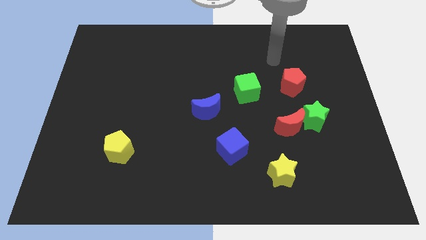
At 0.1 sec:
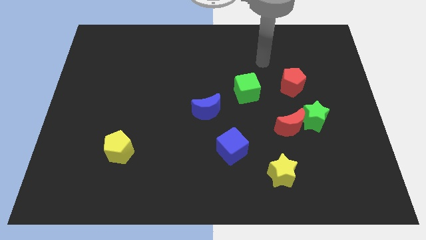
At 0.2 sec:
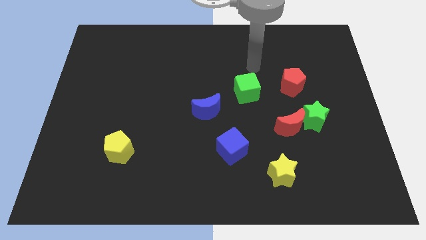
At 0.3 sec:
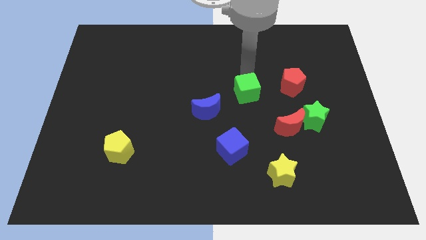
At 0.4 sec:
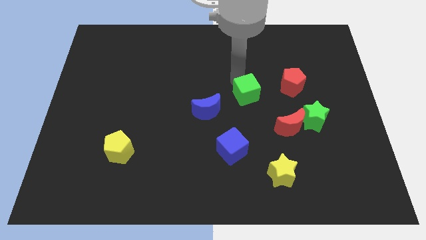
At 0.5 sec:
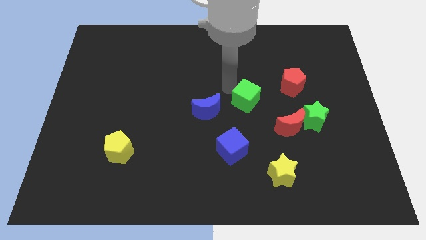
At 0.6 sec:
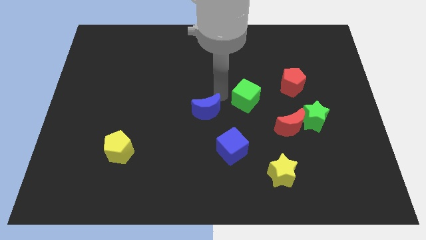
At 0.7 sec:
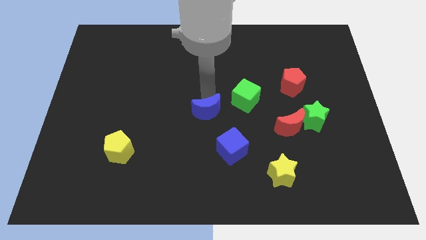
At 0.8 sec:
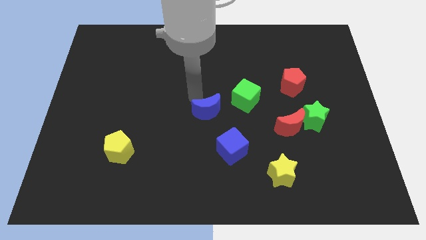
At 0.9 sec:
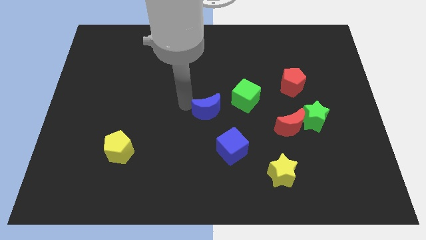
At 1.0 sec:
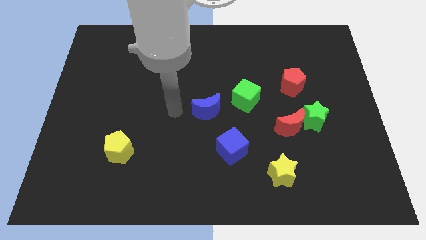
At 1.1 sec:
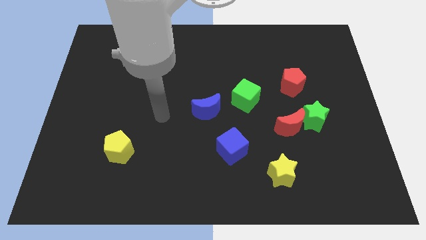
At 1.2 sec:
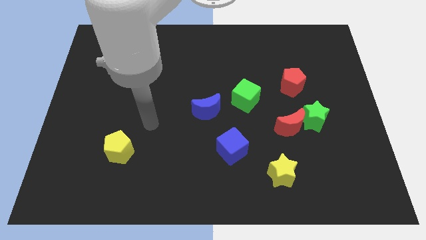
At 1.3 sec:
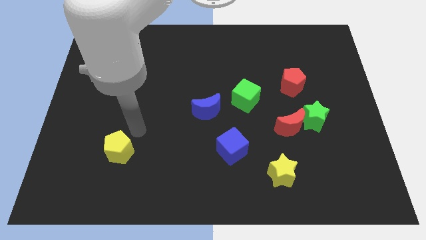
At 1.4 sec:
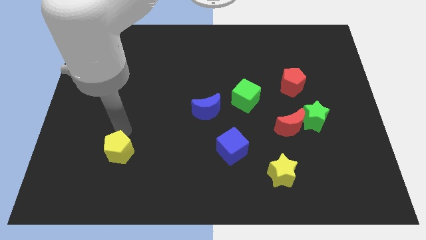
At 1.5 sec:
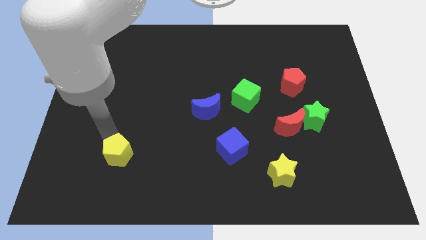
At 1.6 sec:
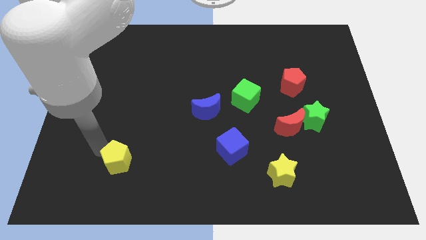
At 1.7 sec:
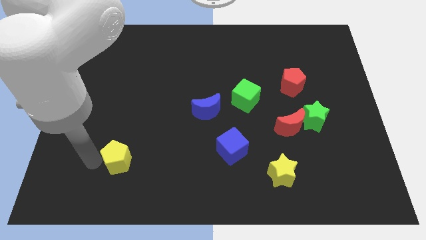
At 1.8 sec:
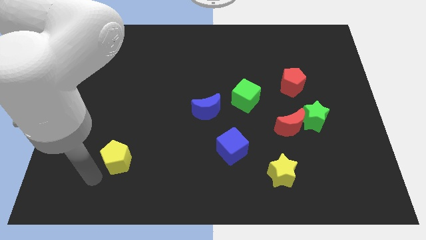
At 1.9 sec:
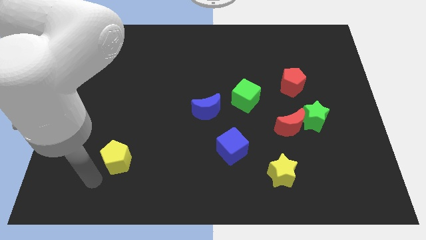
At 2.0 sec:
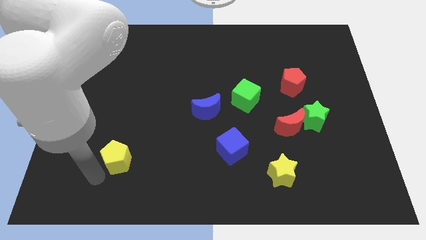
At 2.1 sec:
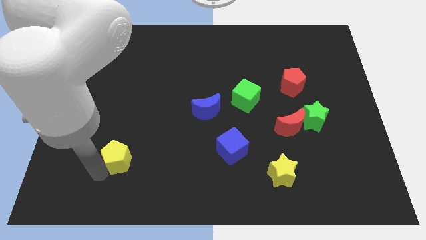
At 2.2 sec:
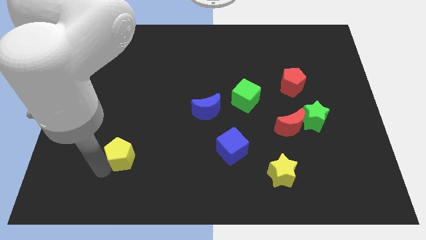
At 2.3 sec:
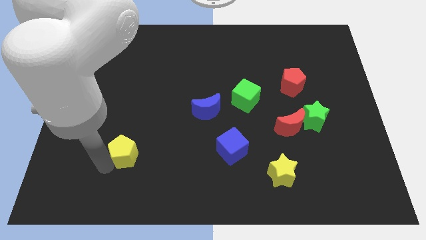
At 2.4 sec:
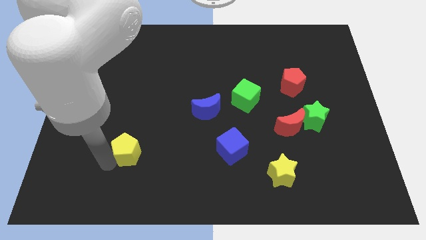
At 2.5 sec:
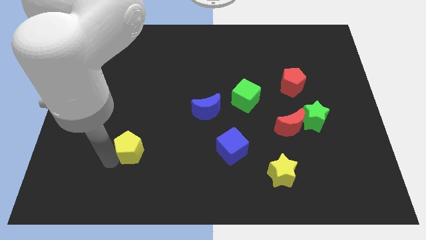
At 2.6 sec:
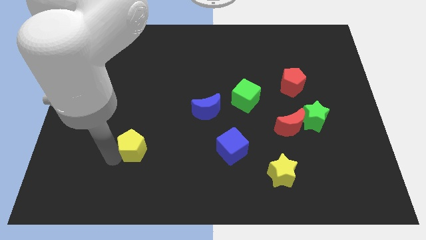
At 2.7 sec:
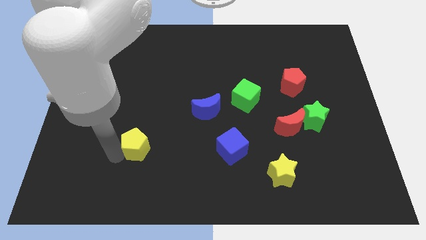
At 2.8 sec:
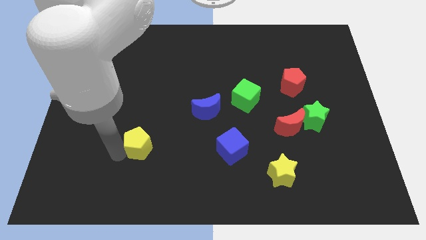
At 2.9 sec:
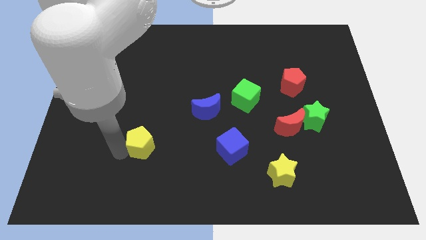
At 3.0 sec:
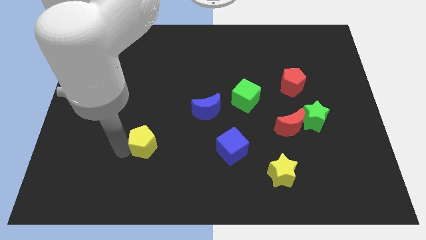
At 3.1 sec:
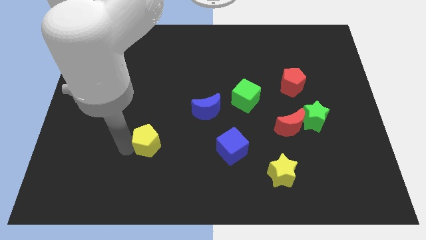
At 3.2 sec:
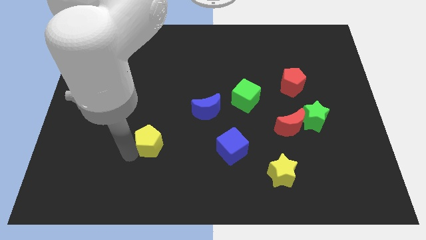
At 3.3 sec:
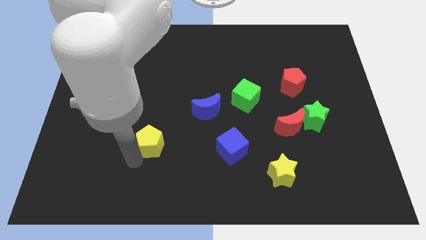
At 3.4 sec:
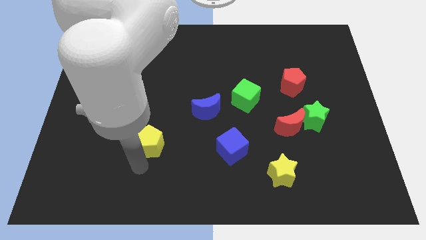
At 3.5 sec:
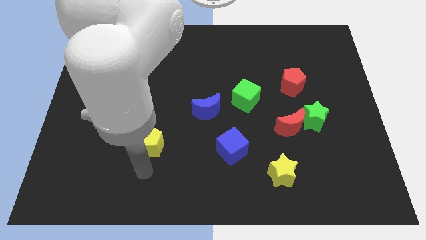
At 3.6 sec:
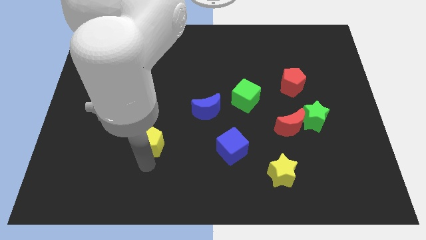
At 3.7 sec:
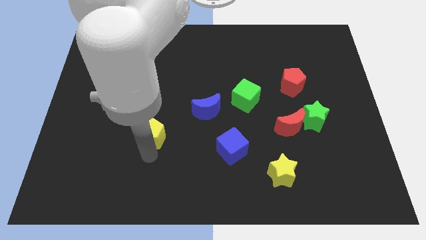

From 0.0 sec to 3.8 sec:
push the yellow pentagon up and to the right a little

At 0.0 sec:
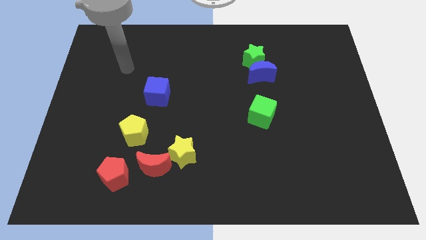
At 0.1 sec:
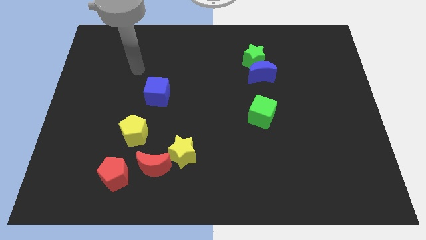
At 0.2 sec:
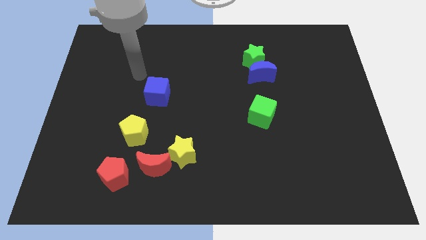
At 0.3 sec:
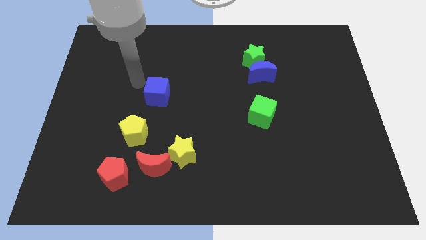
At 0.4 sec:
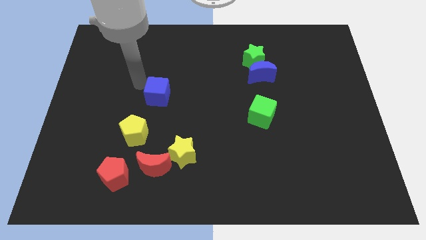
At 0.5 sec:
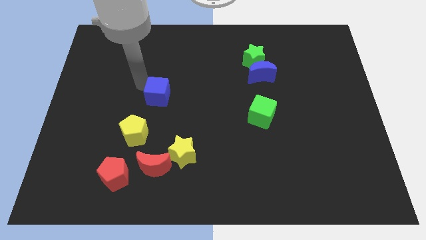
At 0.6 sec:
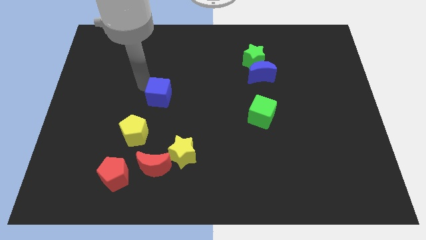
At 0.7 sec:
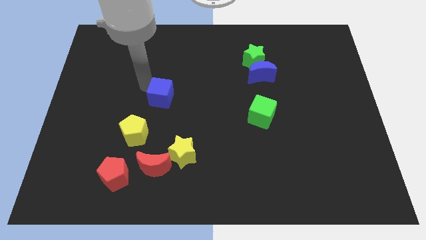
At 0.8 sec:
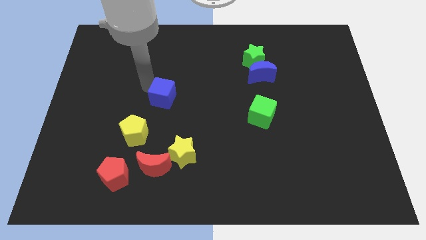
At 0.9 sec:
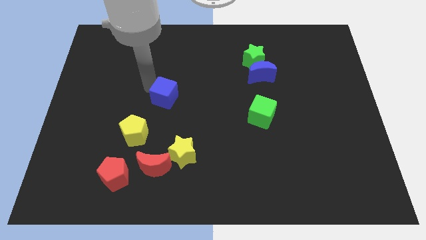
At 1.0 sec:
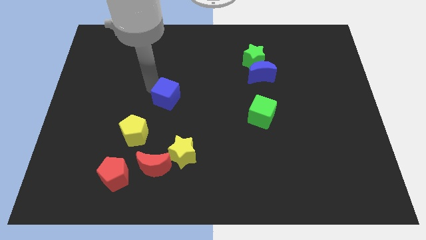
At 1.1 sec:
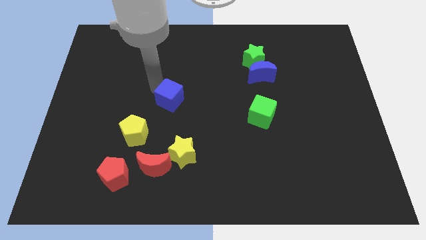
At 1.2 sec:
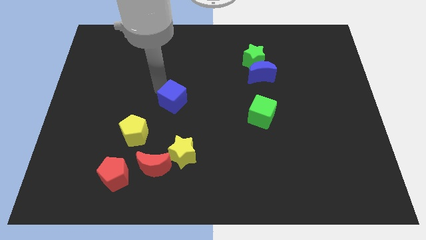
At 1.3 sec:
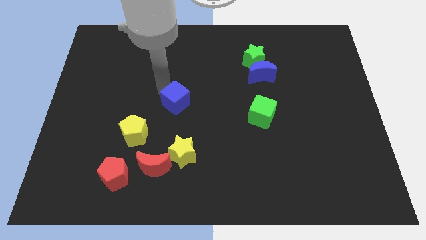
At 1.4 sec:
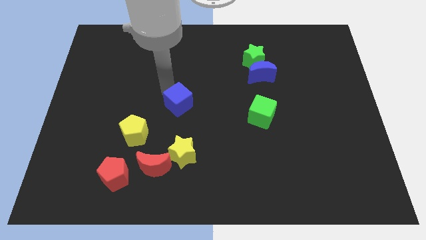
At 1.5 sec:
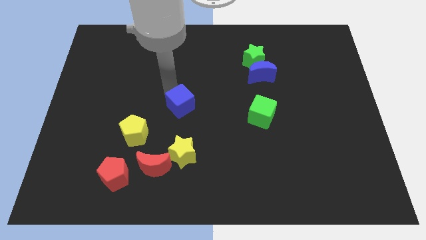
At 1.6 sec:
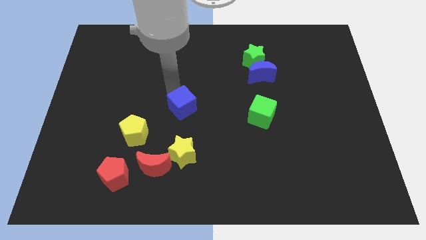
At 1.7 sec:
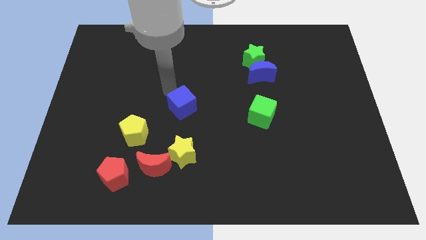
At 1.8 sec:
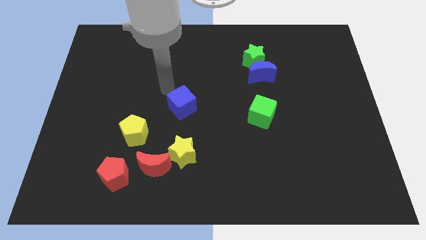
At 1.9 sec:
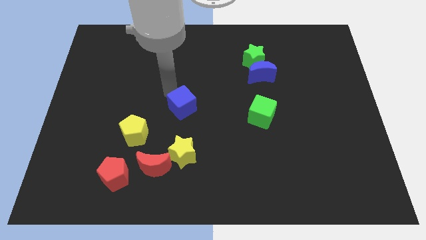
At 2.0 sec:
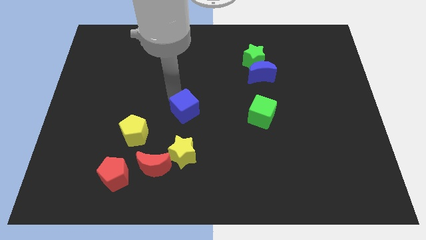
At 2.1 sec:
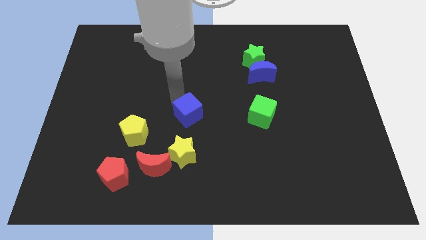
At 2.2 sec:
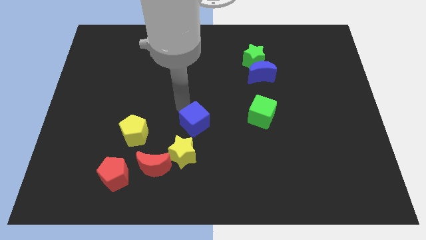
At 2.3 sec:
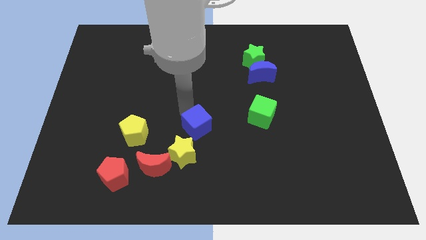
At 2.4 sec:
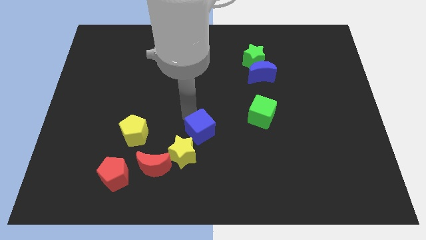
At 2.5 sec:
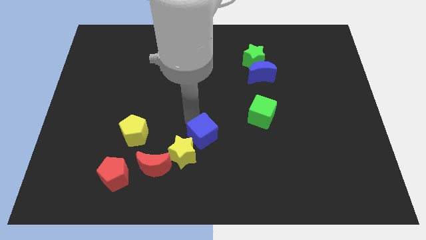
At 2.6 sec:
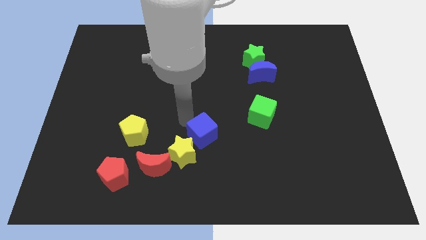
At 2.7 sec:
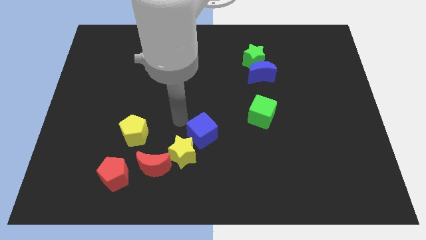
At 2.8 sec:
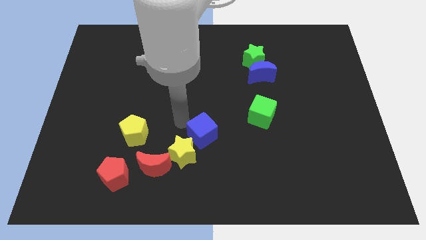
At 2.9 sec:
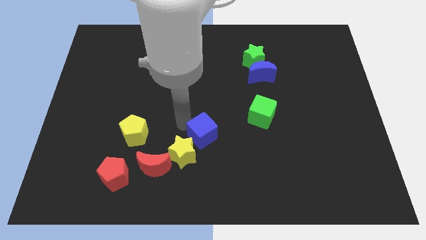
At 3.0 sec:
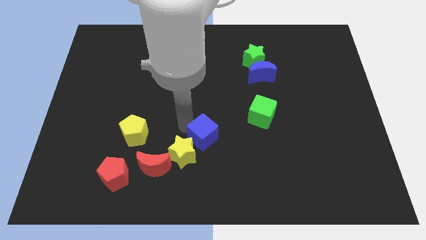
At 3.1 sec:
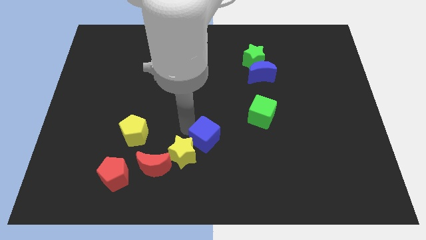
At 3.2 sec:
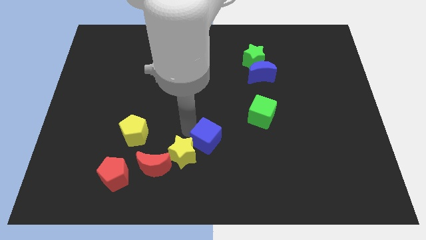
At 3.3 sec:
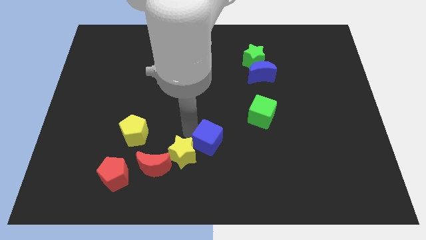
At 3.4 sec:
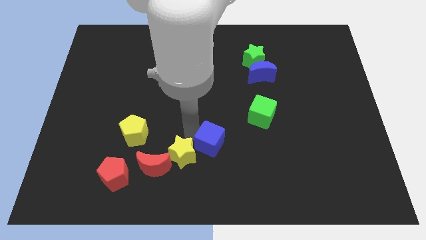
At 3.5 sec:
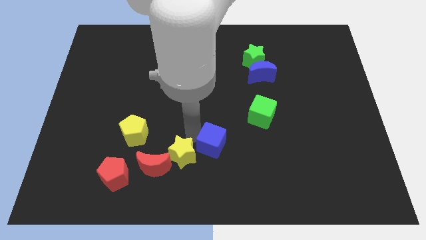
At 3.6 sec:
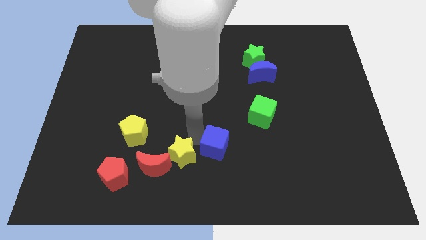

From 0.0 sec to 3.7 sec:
slide the blue cube downwards and then to the right

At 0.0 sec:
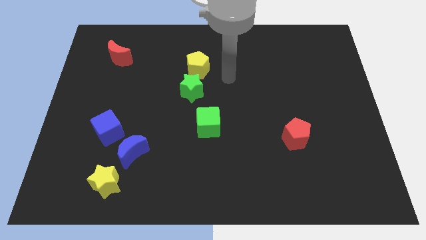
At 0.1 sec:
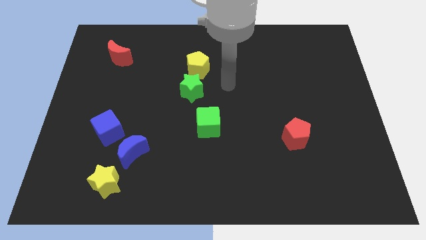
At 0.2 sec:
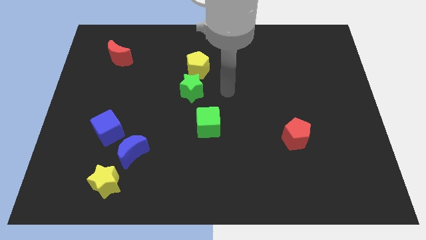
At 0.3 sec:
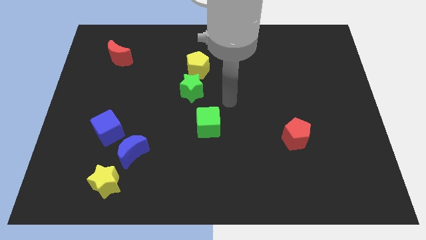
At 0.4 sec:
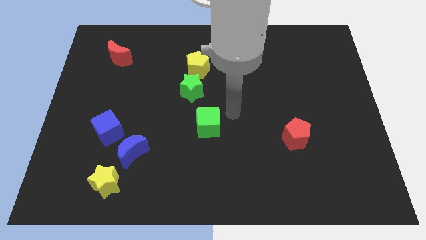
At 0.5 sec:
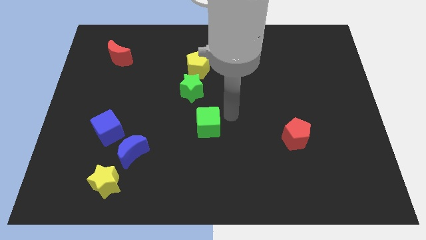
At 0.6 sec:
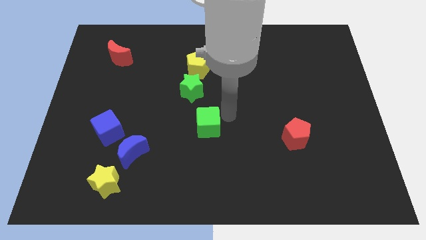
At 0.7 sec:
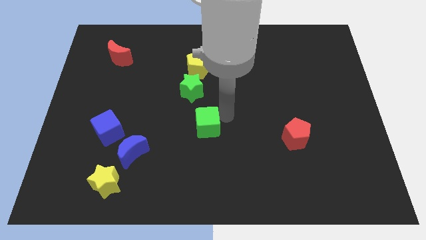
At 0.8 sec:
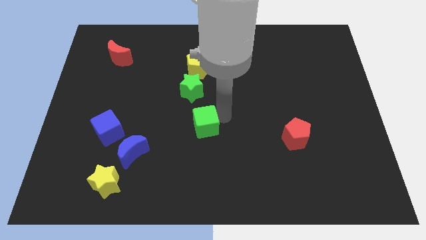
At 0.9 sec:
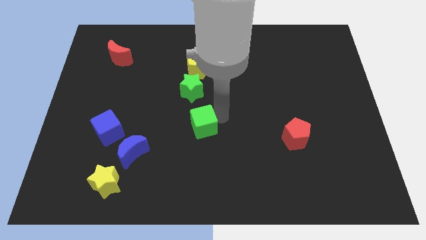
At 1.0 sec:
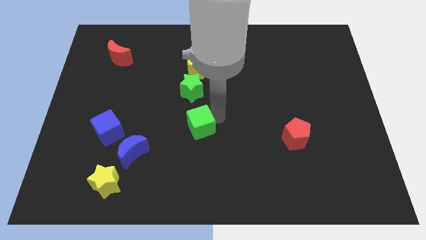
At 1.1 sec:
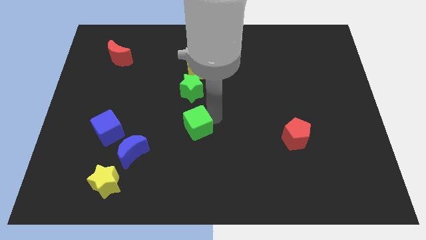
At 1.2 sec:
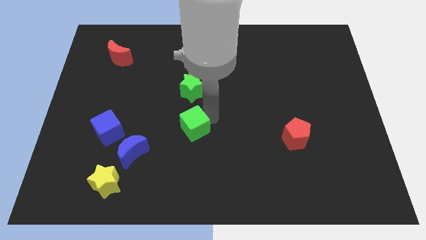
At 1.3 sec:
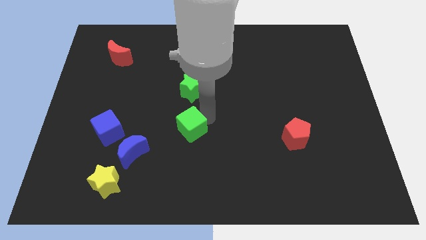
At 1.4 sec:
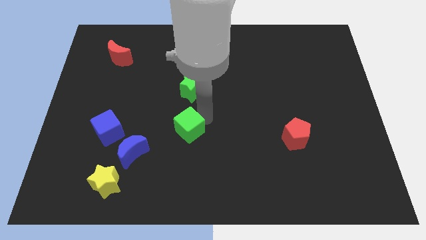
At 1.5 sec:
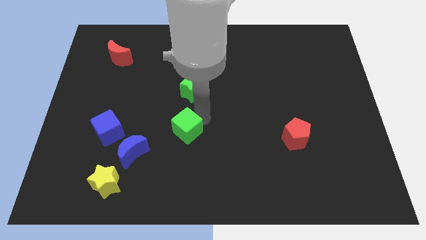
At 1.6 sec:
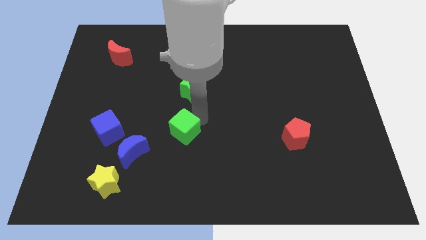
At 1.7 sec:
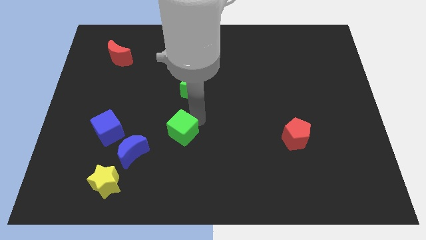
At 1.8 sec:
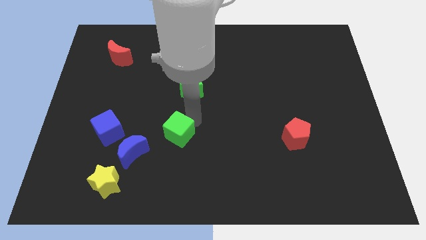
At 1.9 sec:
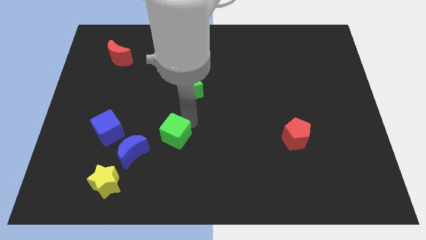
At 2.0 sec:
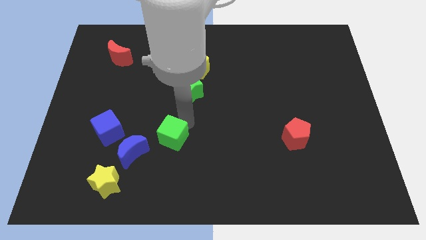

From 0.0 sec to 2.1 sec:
push the green cube slightly down and to the left diagonally
